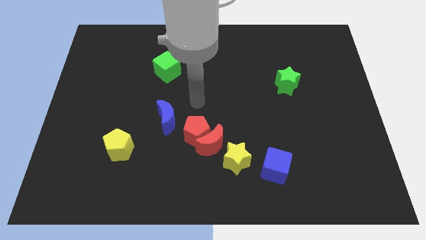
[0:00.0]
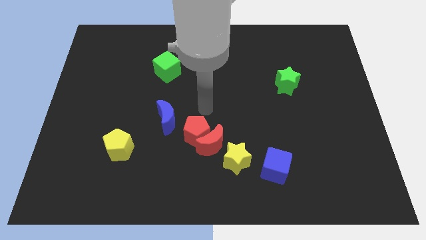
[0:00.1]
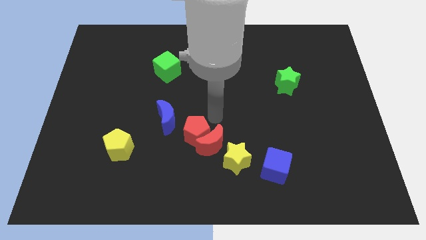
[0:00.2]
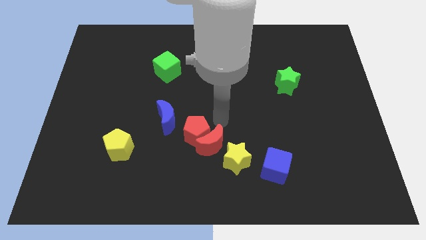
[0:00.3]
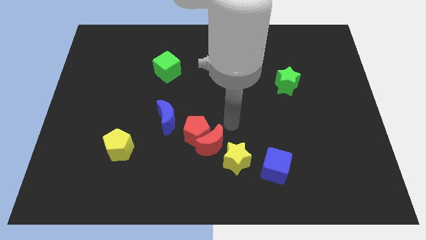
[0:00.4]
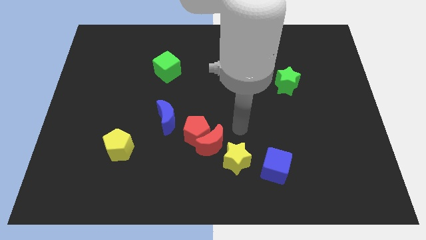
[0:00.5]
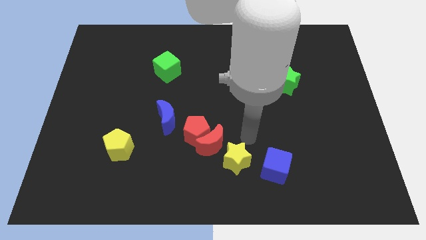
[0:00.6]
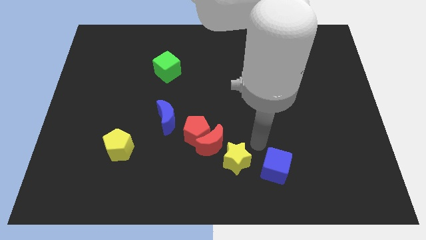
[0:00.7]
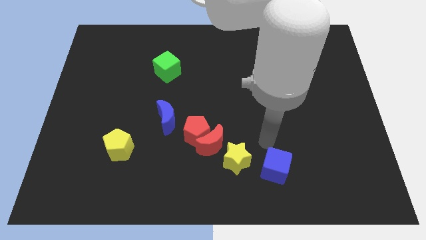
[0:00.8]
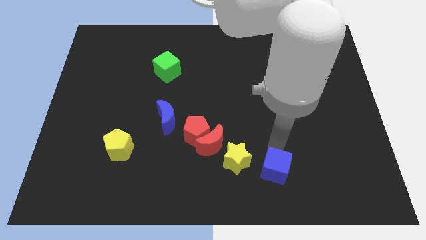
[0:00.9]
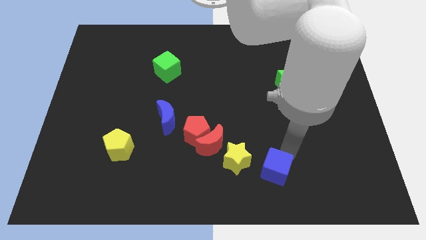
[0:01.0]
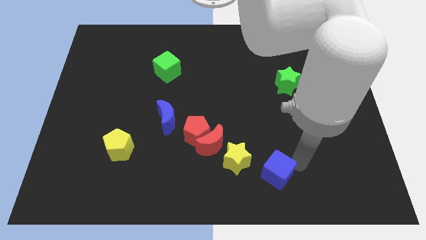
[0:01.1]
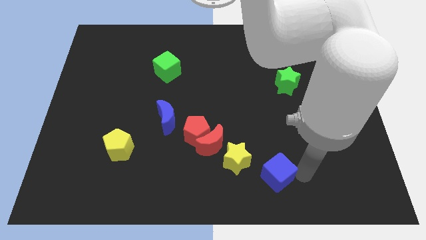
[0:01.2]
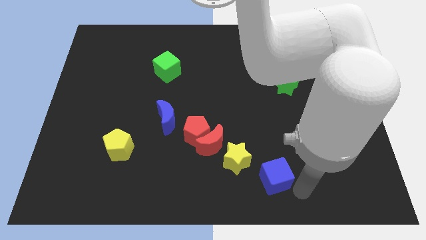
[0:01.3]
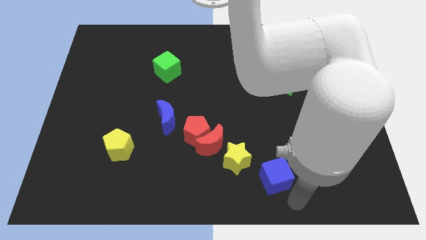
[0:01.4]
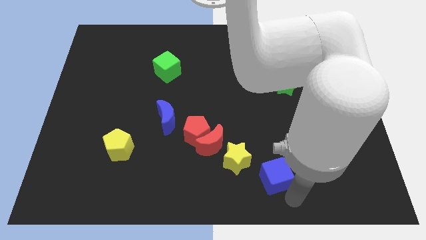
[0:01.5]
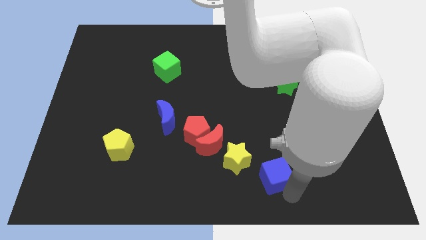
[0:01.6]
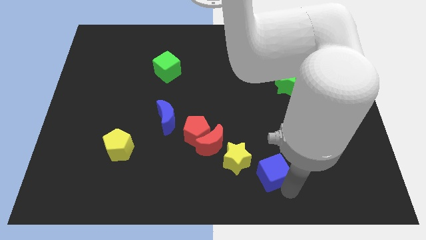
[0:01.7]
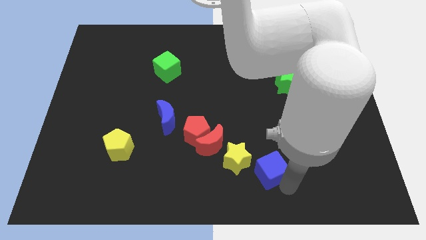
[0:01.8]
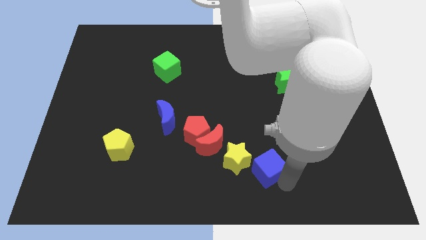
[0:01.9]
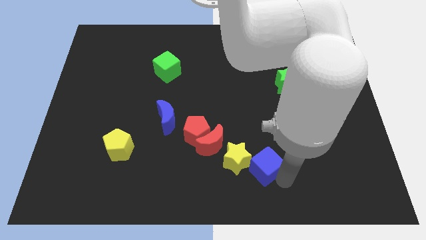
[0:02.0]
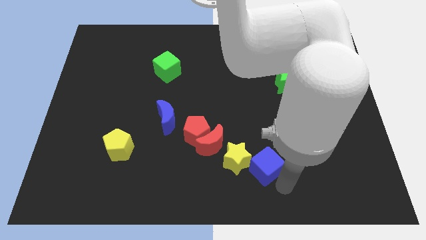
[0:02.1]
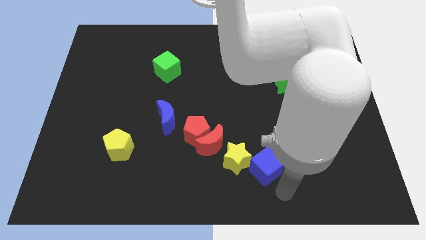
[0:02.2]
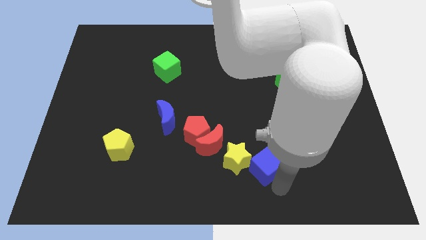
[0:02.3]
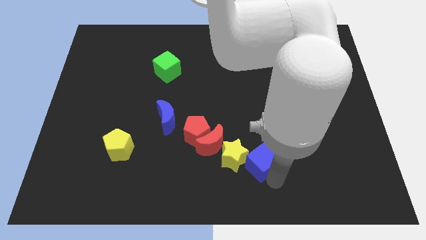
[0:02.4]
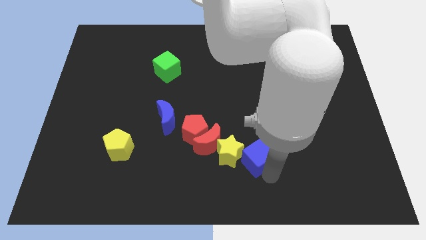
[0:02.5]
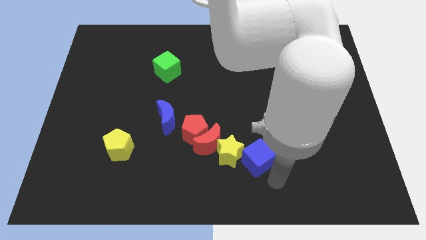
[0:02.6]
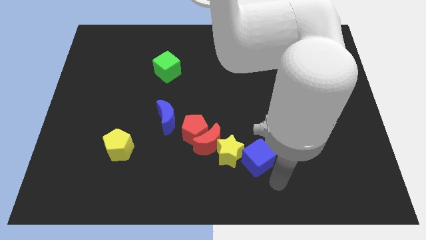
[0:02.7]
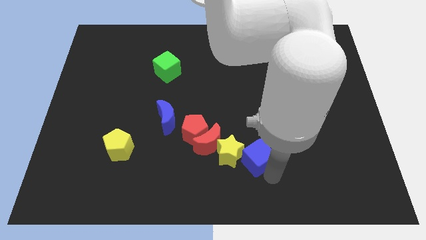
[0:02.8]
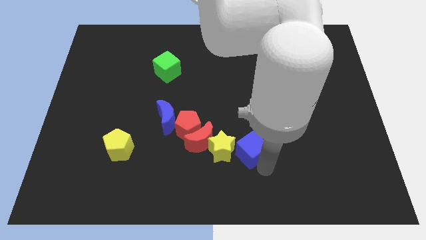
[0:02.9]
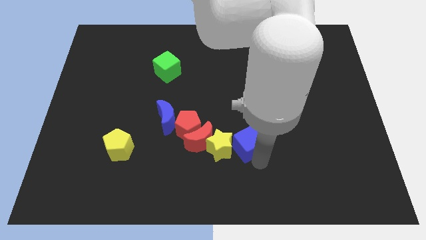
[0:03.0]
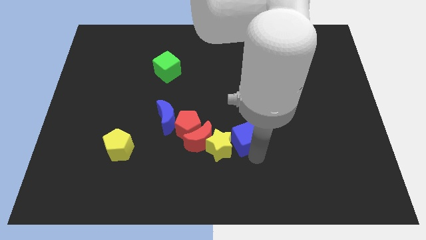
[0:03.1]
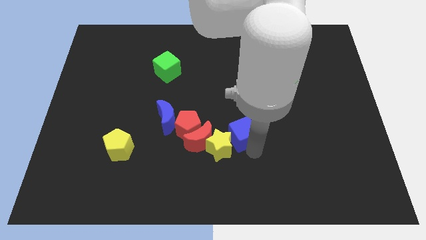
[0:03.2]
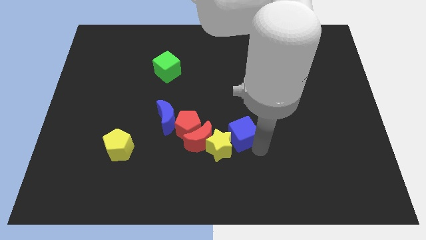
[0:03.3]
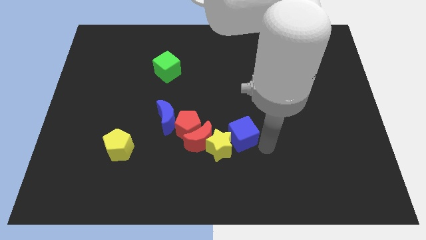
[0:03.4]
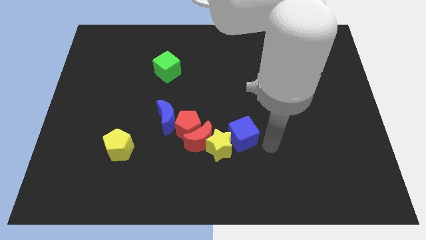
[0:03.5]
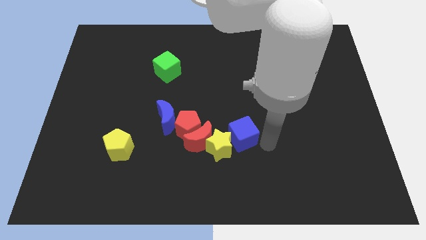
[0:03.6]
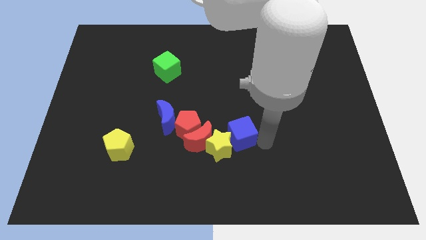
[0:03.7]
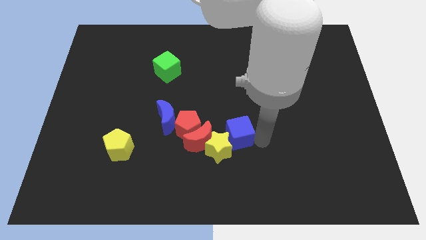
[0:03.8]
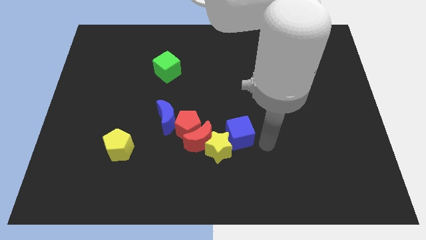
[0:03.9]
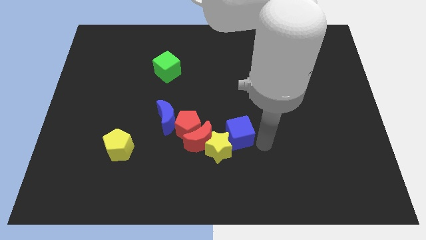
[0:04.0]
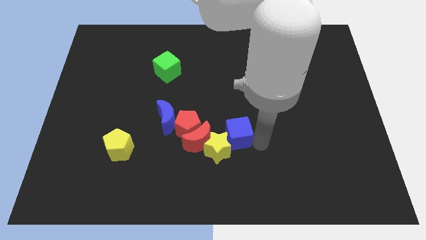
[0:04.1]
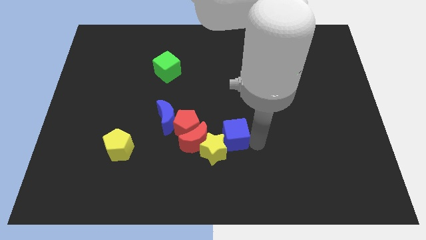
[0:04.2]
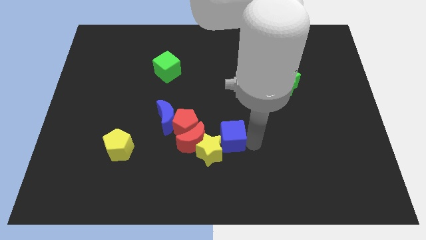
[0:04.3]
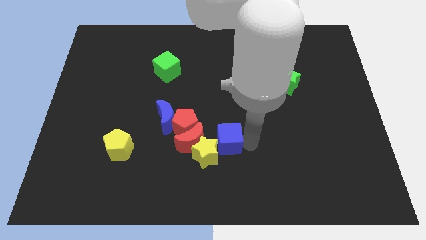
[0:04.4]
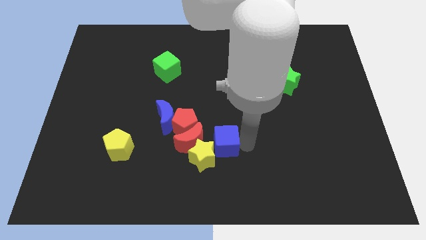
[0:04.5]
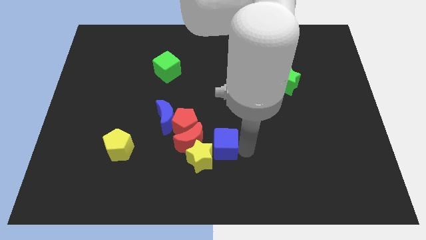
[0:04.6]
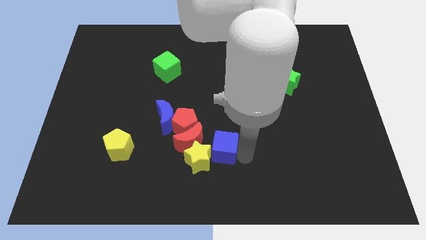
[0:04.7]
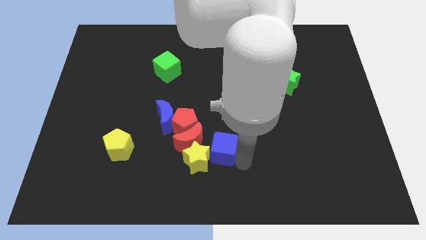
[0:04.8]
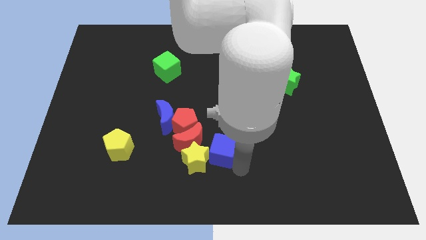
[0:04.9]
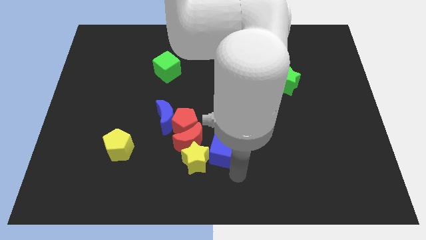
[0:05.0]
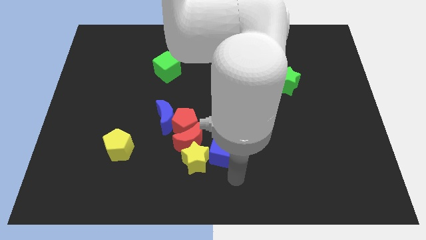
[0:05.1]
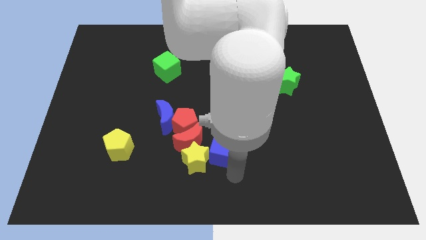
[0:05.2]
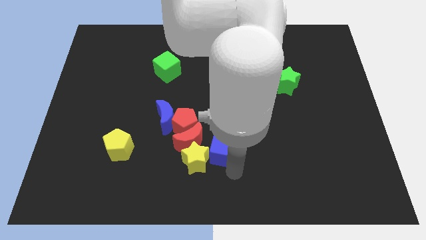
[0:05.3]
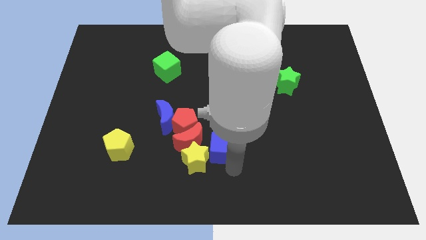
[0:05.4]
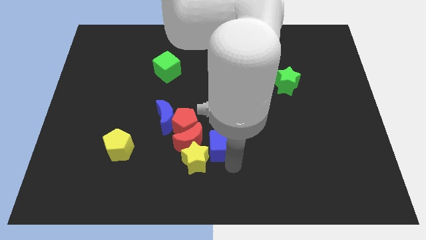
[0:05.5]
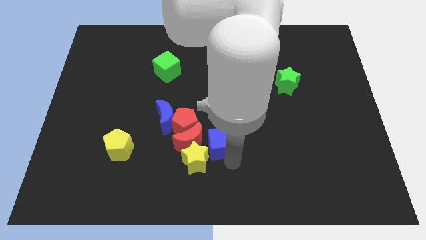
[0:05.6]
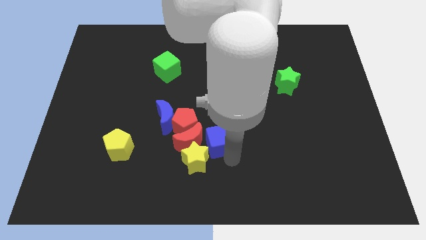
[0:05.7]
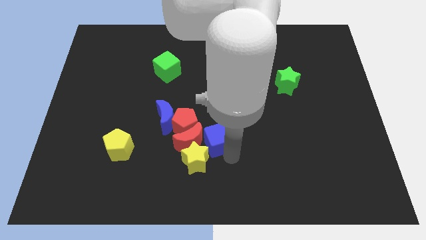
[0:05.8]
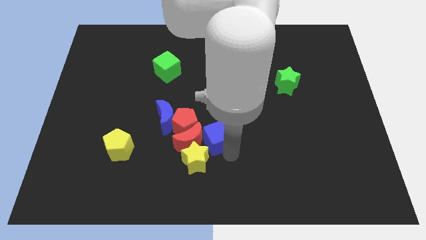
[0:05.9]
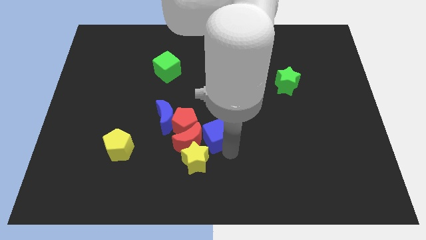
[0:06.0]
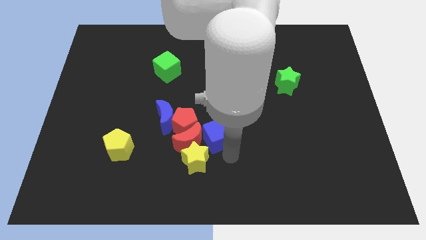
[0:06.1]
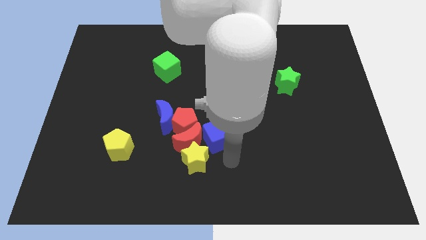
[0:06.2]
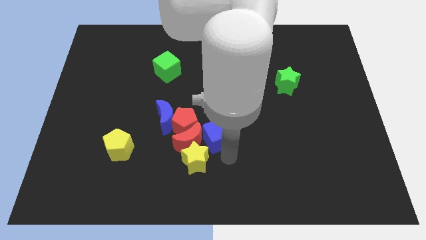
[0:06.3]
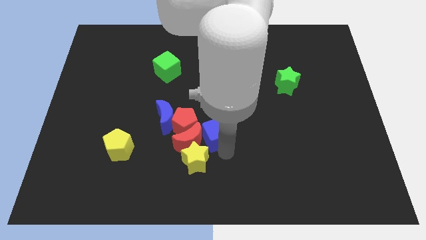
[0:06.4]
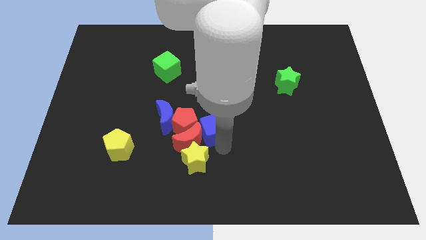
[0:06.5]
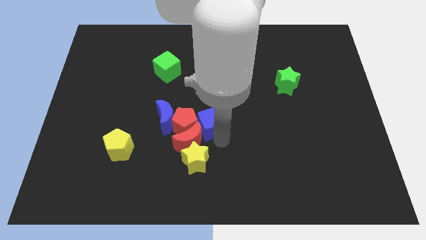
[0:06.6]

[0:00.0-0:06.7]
move the blue cube to the red pentagon
